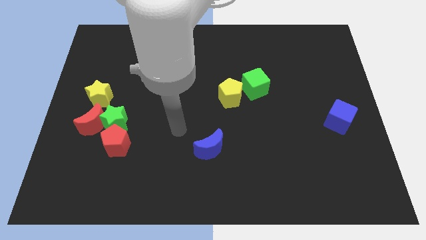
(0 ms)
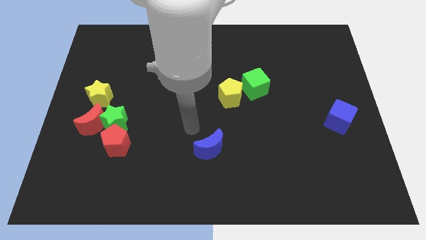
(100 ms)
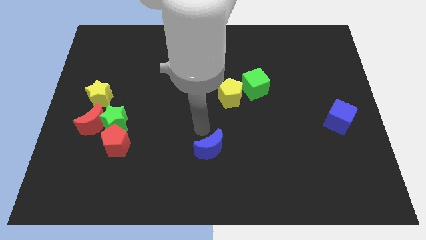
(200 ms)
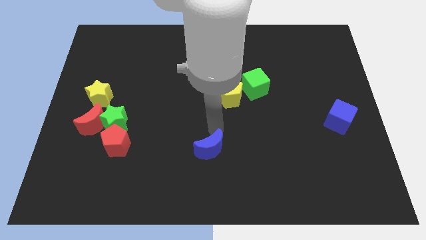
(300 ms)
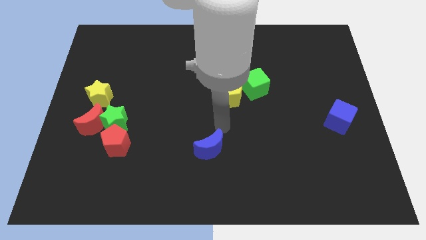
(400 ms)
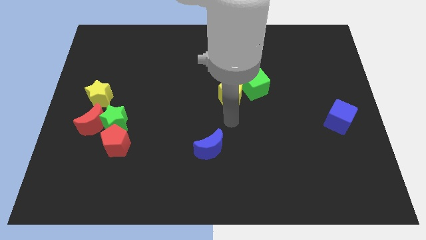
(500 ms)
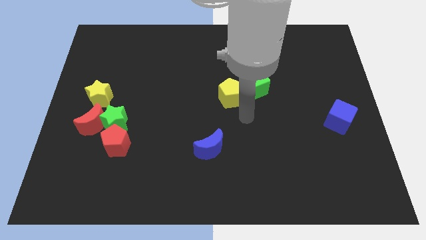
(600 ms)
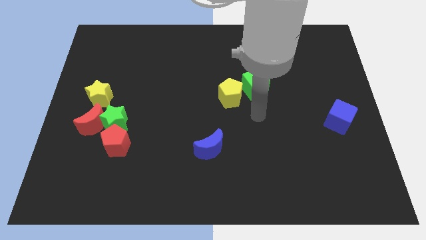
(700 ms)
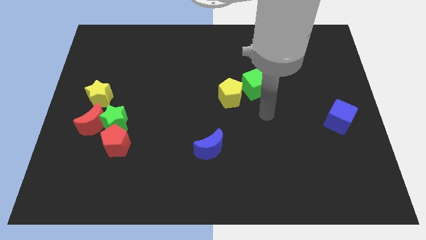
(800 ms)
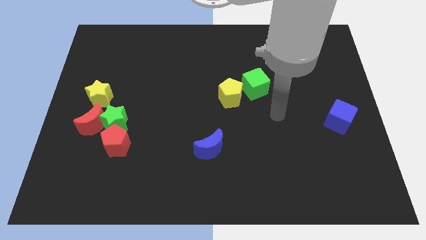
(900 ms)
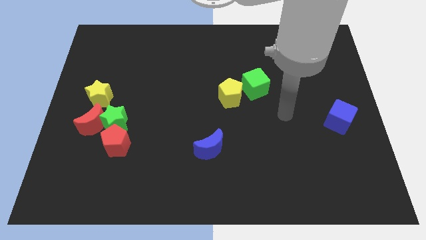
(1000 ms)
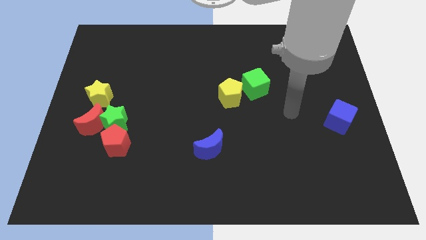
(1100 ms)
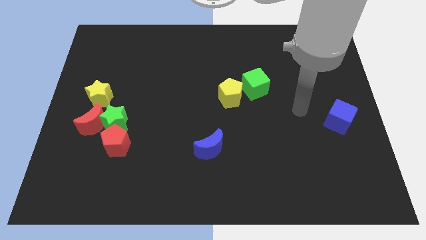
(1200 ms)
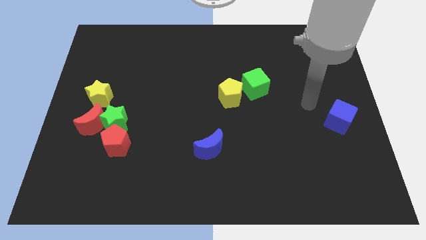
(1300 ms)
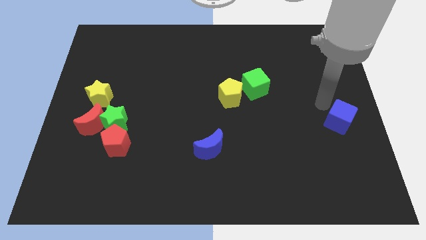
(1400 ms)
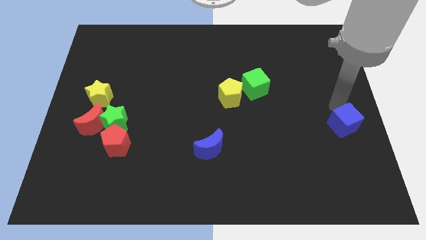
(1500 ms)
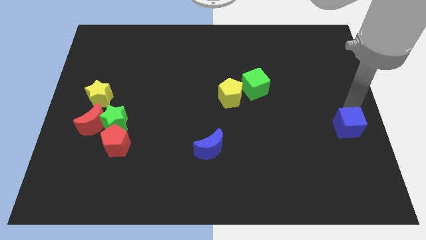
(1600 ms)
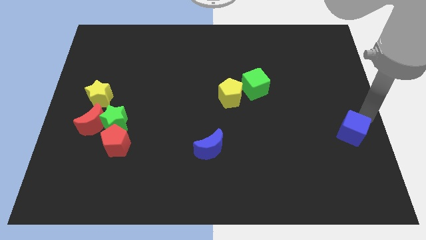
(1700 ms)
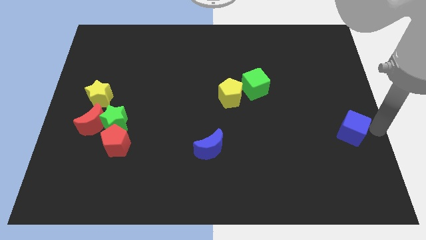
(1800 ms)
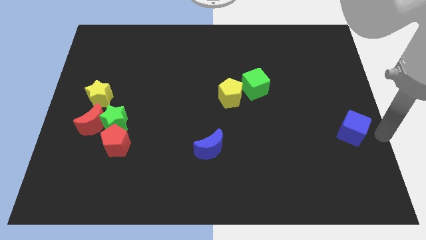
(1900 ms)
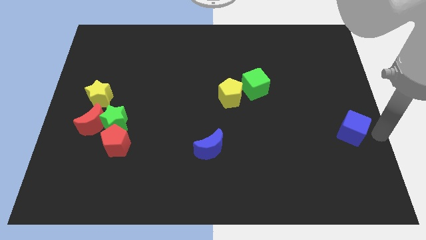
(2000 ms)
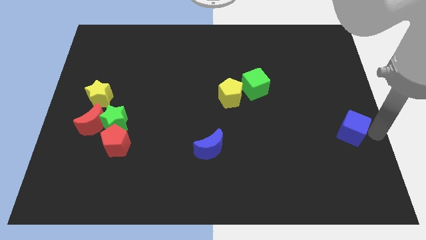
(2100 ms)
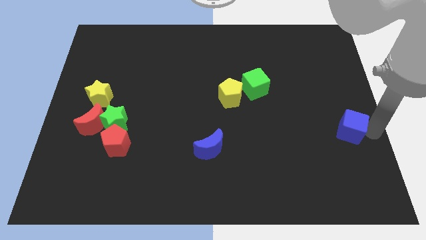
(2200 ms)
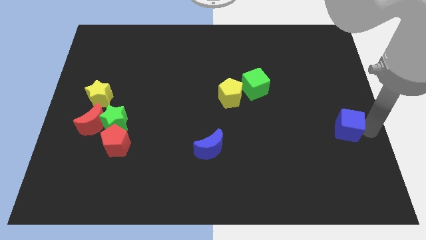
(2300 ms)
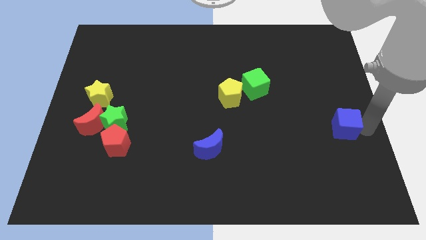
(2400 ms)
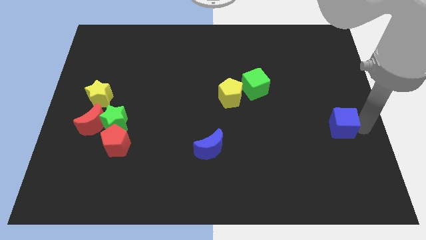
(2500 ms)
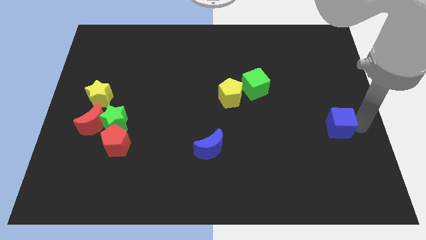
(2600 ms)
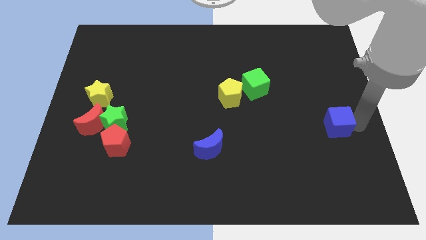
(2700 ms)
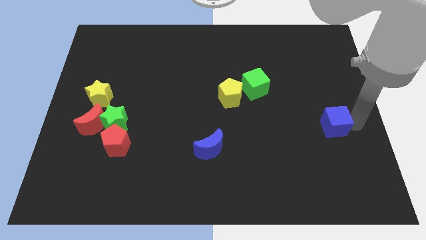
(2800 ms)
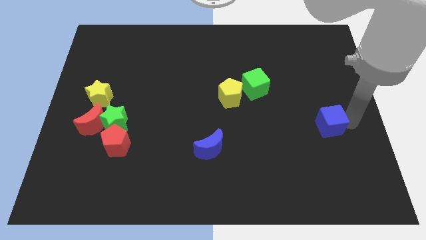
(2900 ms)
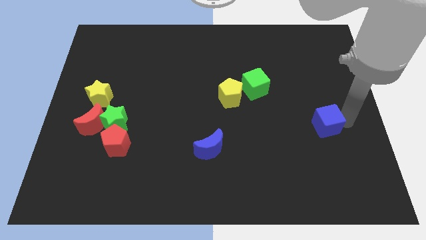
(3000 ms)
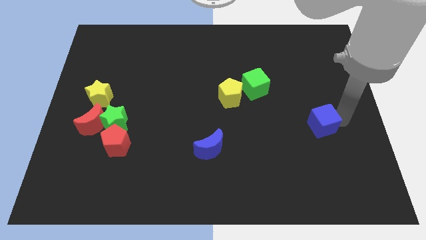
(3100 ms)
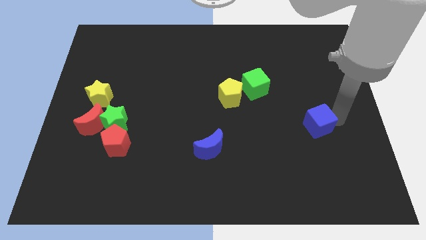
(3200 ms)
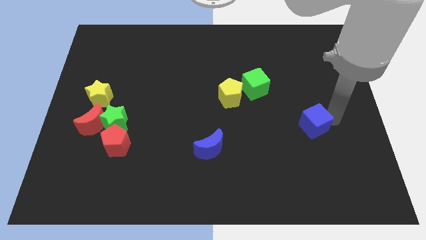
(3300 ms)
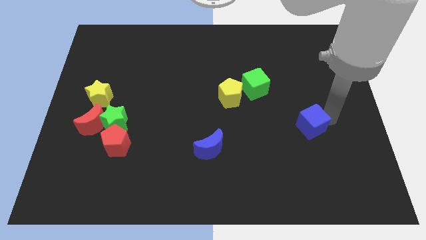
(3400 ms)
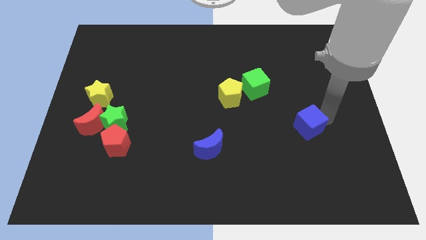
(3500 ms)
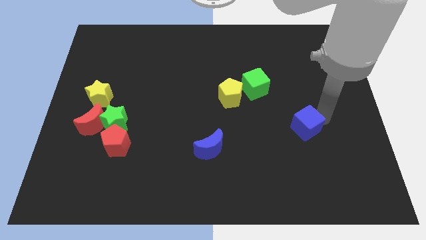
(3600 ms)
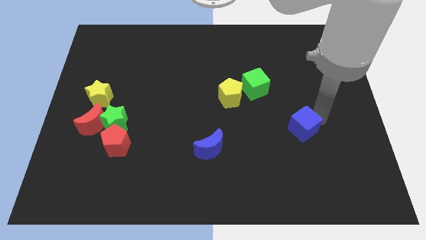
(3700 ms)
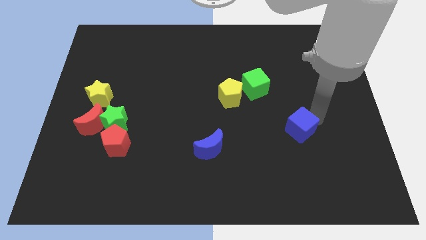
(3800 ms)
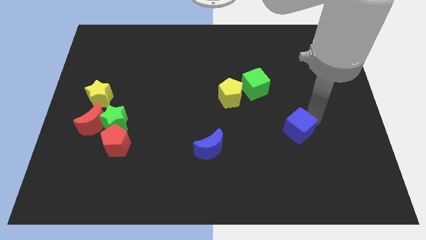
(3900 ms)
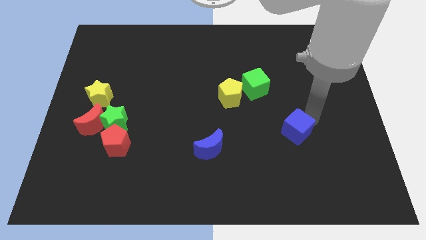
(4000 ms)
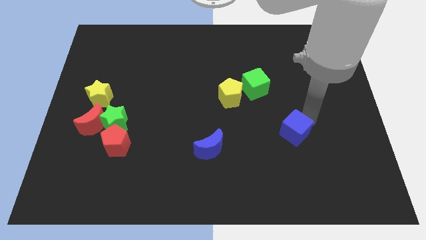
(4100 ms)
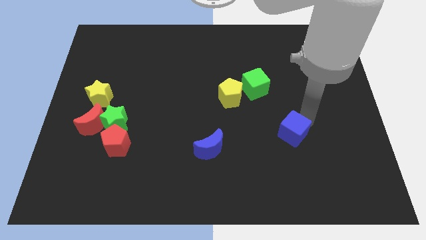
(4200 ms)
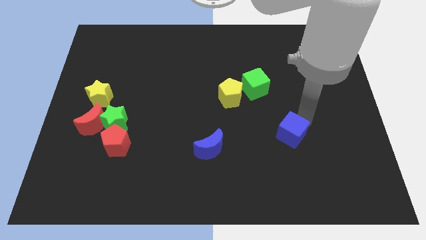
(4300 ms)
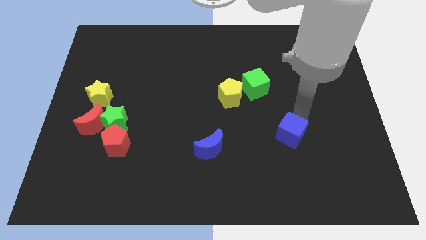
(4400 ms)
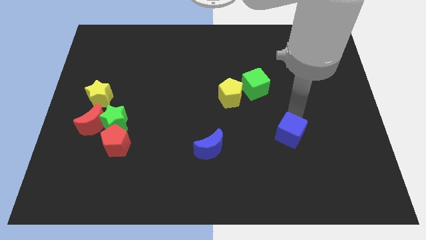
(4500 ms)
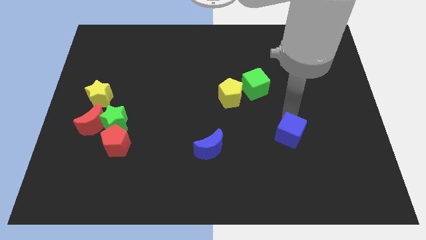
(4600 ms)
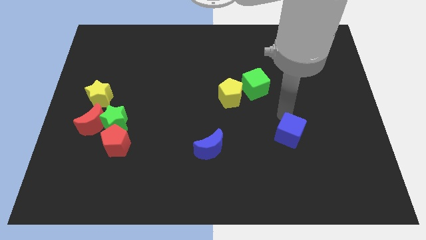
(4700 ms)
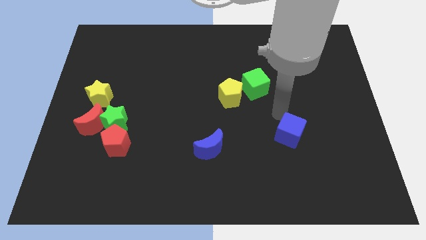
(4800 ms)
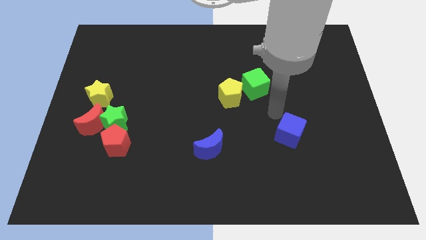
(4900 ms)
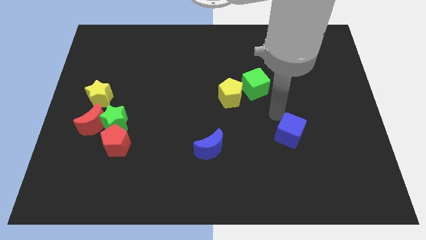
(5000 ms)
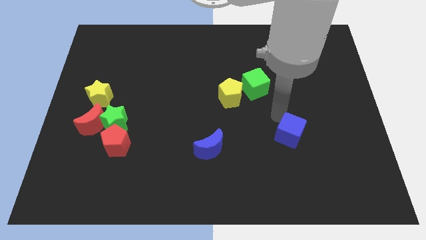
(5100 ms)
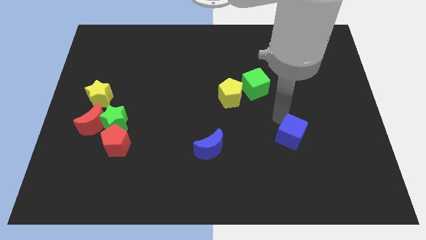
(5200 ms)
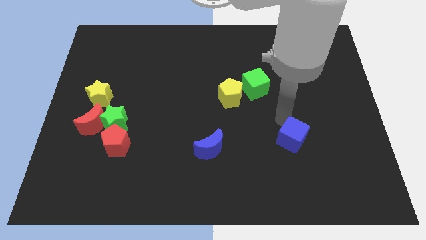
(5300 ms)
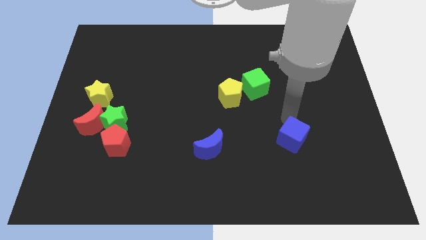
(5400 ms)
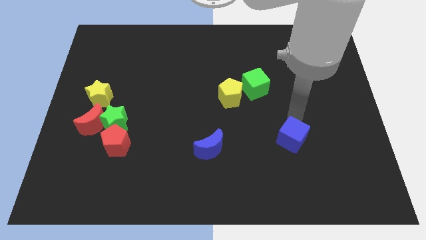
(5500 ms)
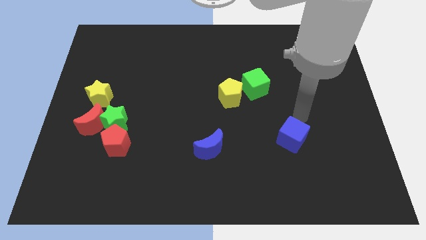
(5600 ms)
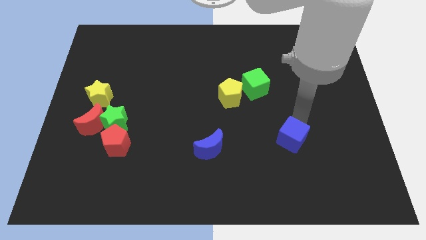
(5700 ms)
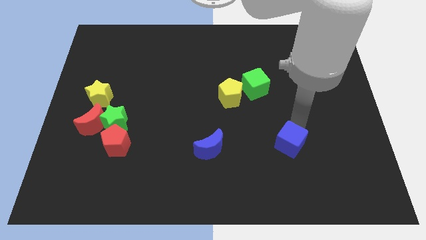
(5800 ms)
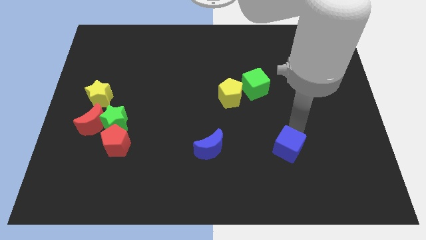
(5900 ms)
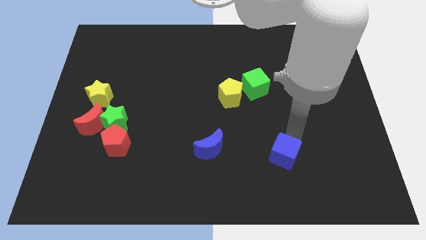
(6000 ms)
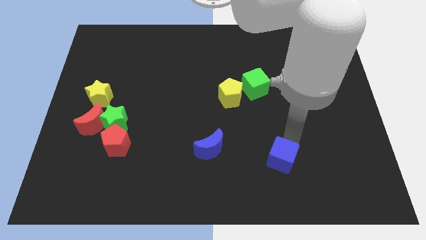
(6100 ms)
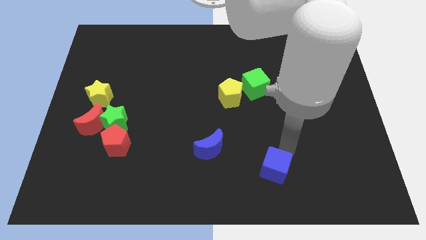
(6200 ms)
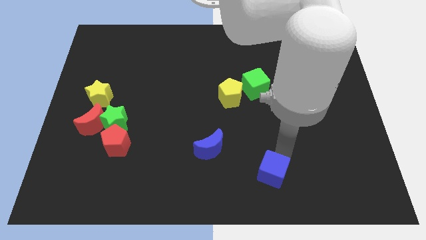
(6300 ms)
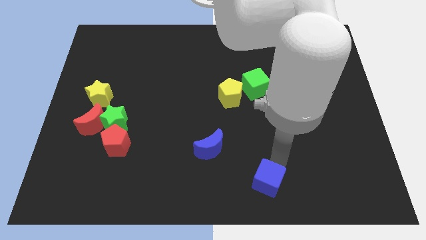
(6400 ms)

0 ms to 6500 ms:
push the blue cube to the bottom side
